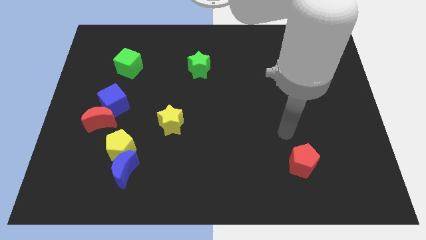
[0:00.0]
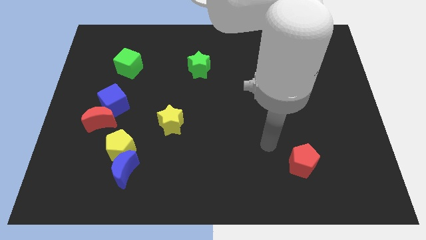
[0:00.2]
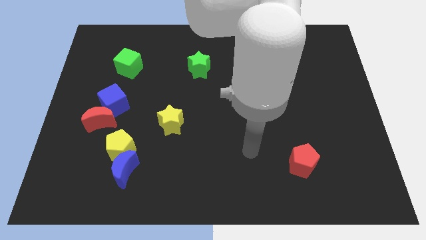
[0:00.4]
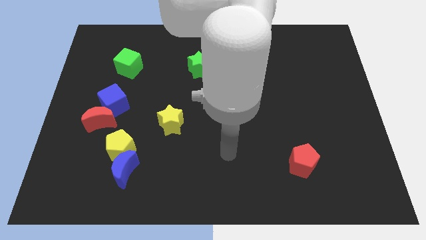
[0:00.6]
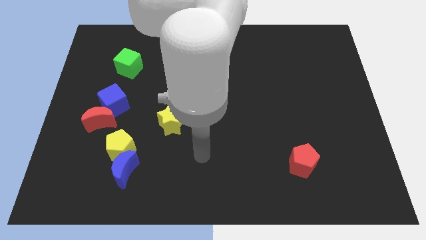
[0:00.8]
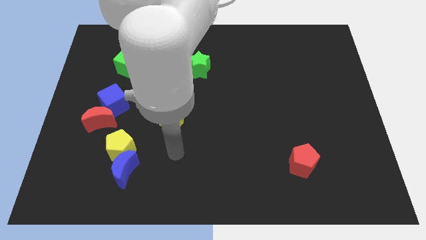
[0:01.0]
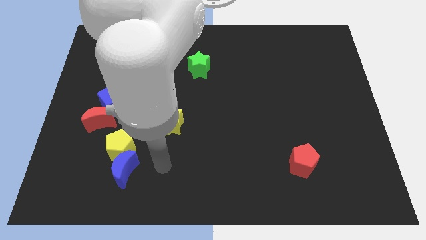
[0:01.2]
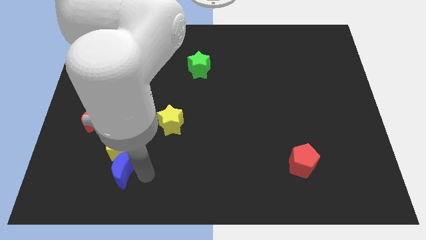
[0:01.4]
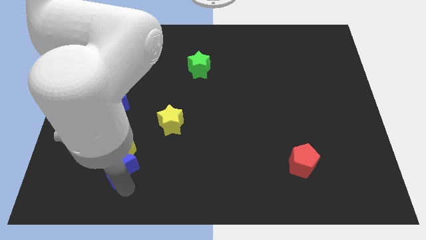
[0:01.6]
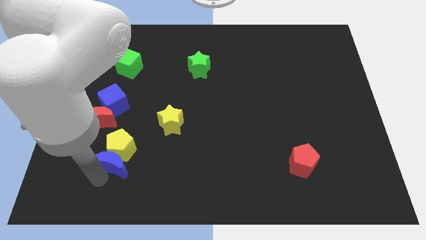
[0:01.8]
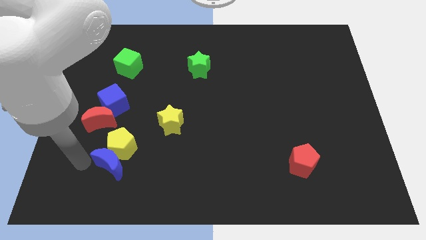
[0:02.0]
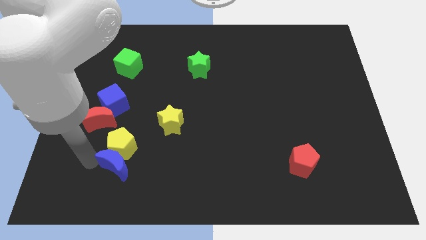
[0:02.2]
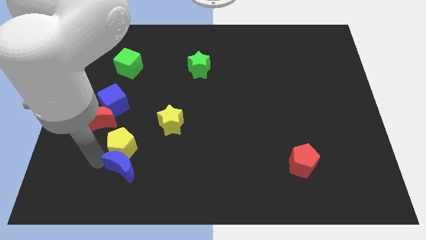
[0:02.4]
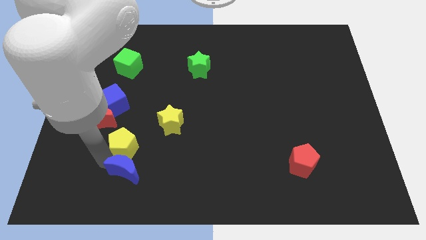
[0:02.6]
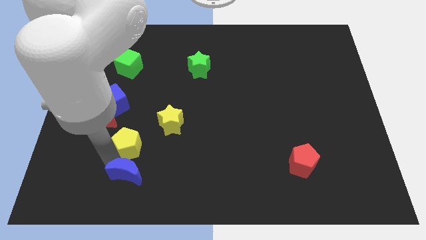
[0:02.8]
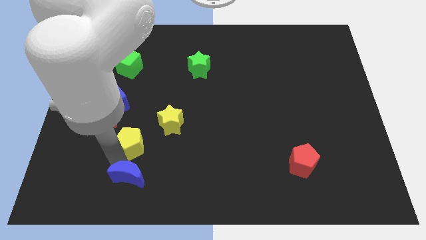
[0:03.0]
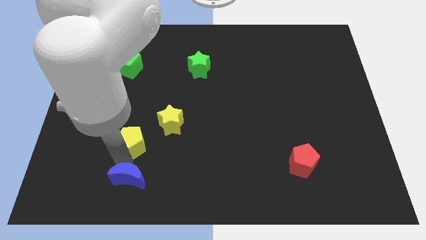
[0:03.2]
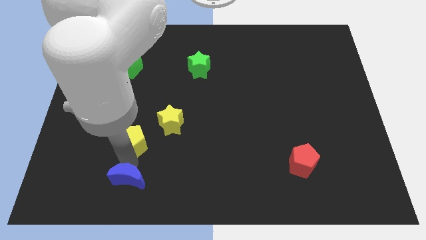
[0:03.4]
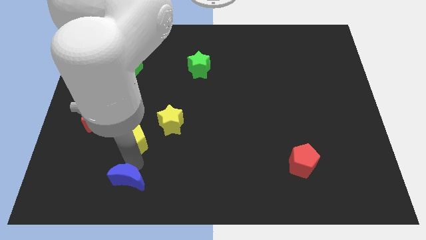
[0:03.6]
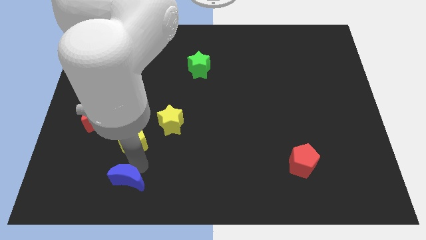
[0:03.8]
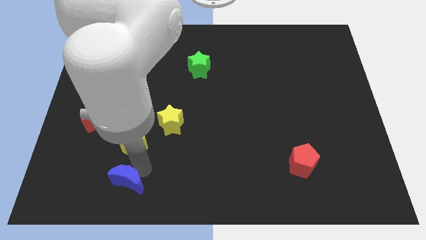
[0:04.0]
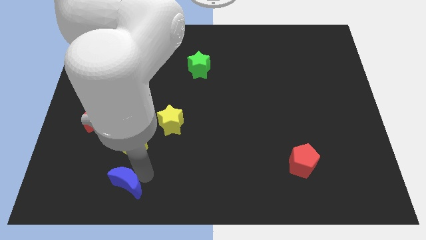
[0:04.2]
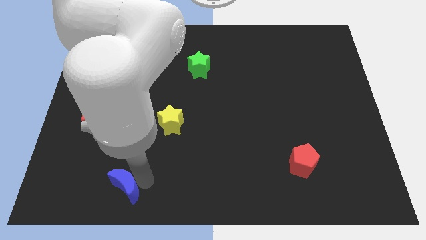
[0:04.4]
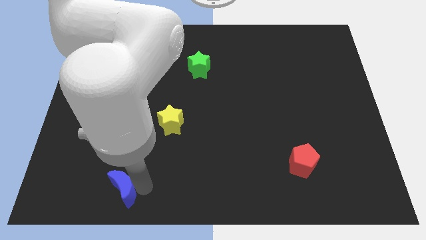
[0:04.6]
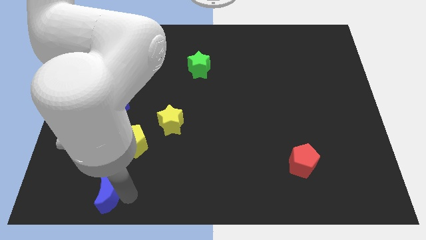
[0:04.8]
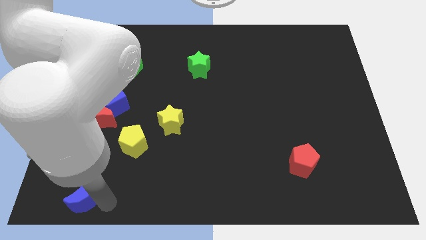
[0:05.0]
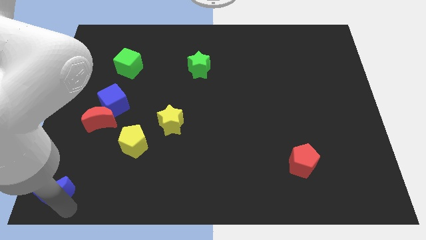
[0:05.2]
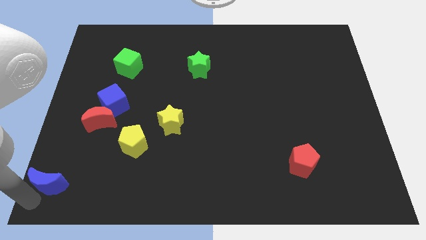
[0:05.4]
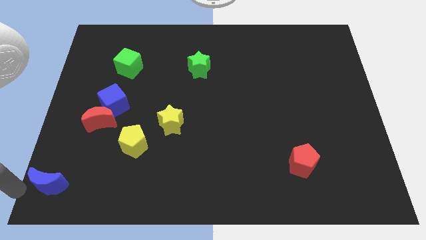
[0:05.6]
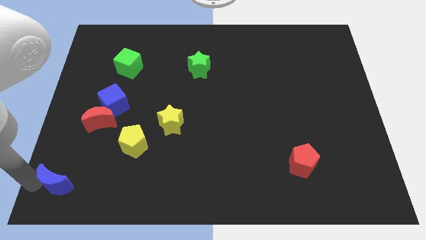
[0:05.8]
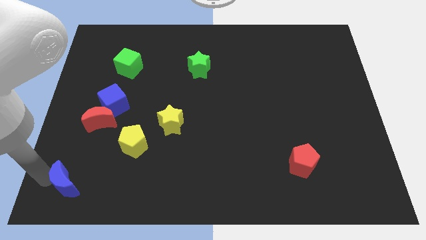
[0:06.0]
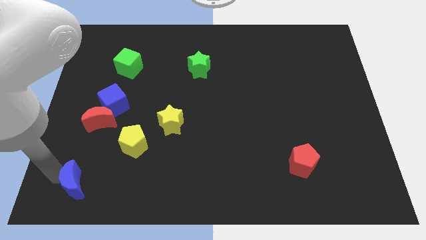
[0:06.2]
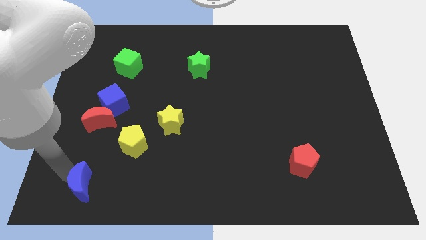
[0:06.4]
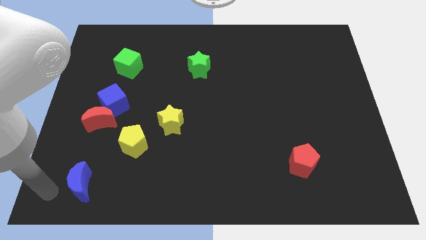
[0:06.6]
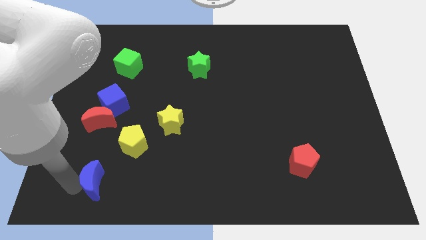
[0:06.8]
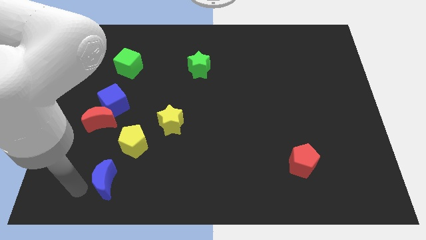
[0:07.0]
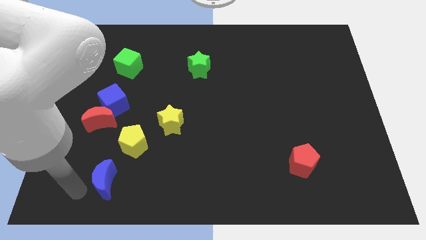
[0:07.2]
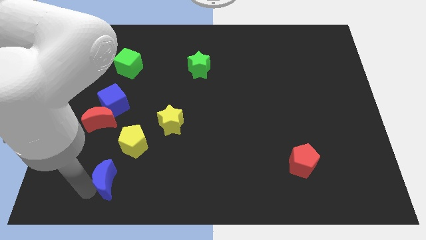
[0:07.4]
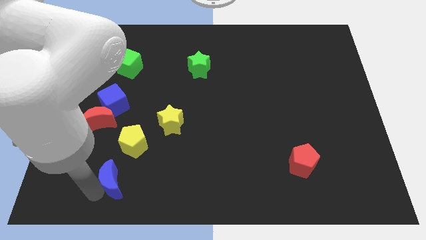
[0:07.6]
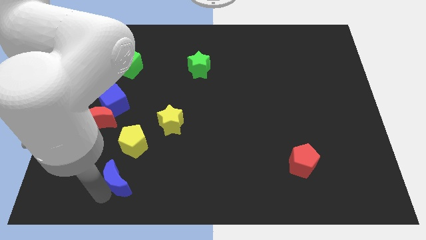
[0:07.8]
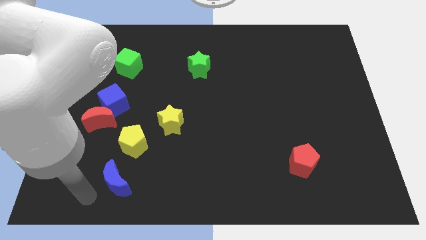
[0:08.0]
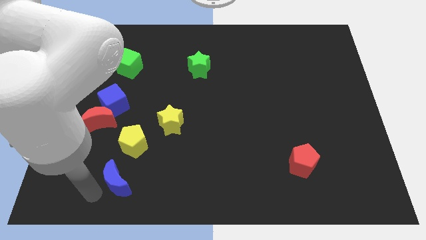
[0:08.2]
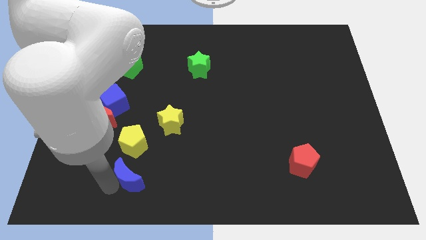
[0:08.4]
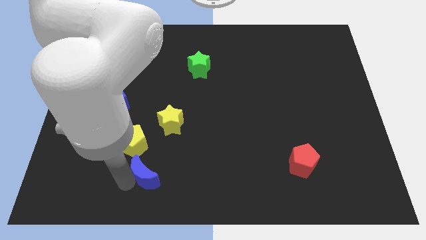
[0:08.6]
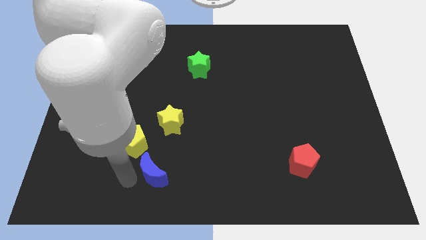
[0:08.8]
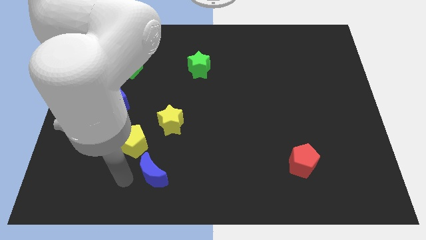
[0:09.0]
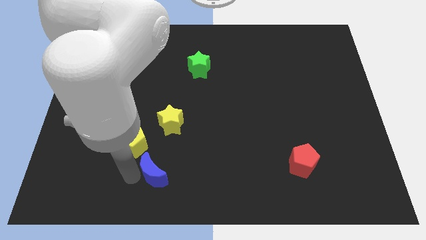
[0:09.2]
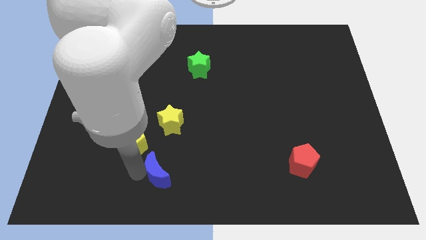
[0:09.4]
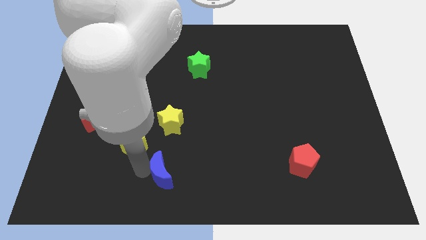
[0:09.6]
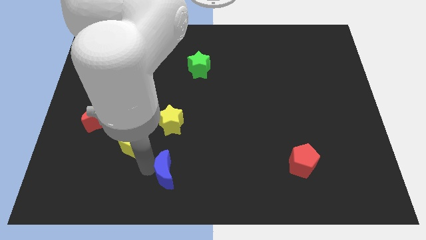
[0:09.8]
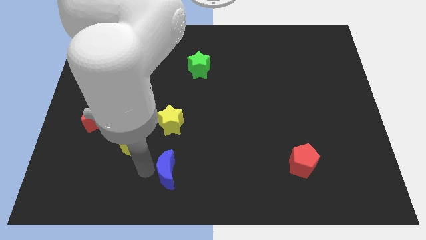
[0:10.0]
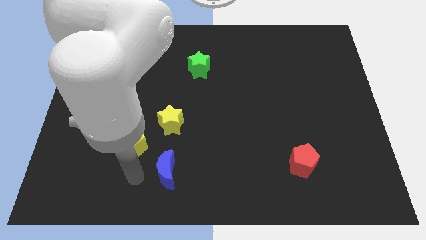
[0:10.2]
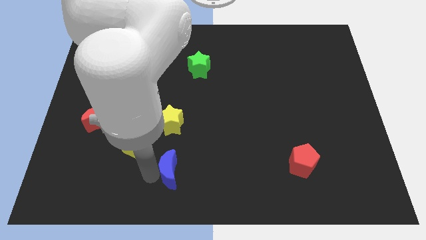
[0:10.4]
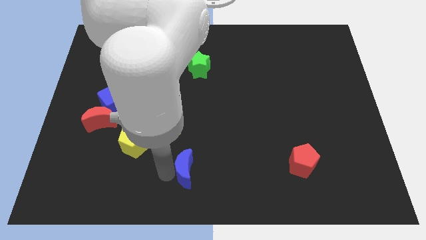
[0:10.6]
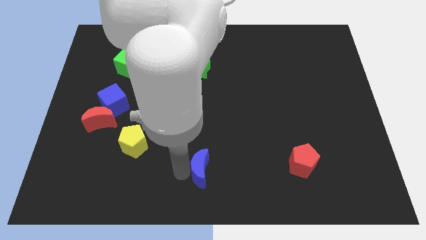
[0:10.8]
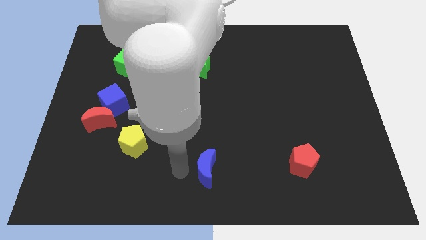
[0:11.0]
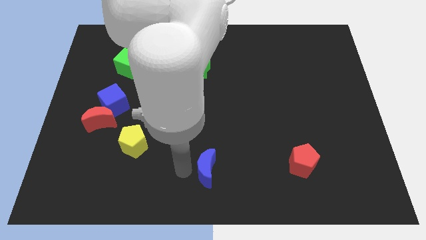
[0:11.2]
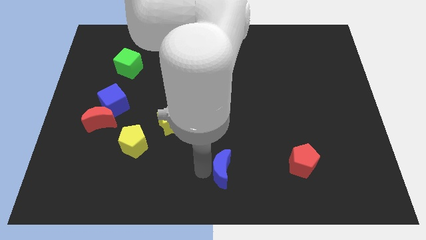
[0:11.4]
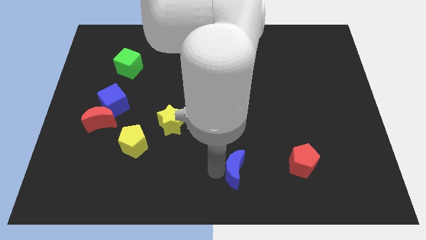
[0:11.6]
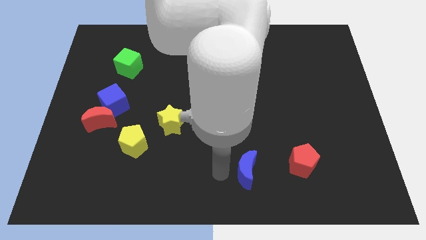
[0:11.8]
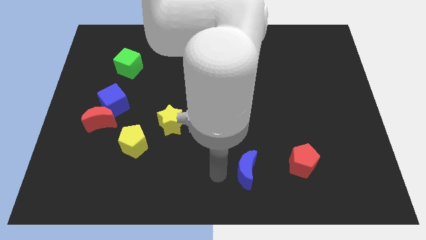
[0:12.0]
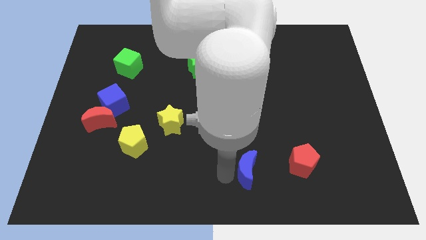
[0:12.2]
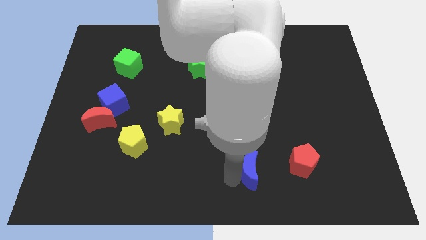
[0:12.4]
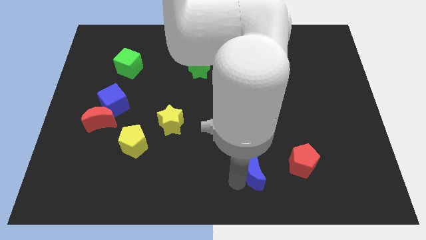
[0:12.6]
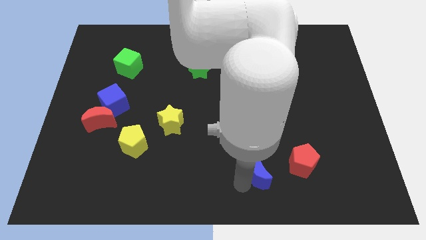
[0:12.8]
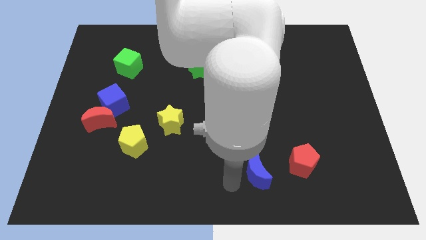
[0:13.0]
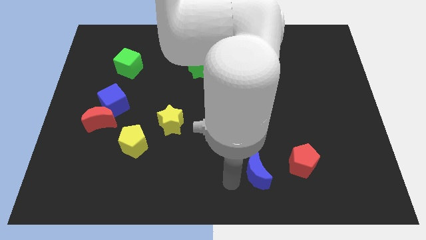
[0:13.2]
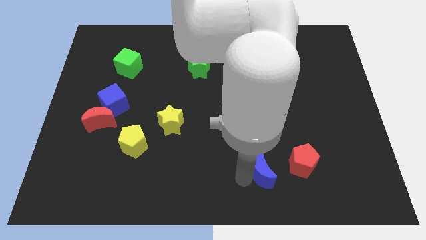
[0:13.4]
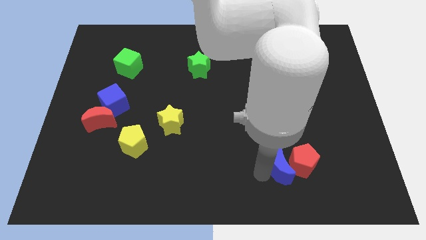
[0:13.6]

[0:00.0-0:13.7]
move the blue moon next to the red pentagon

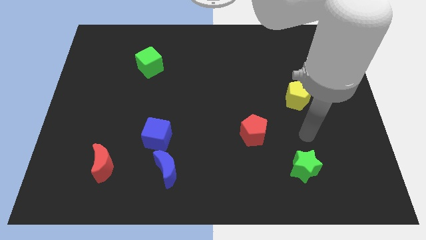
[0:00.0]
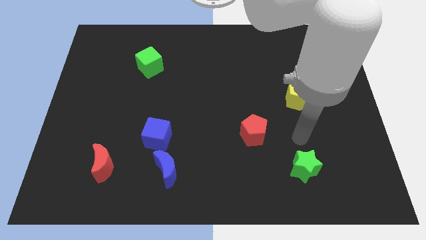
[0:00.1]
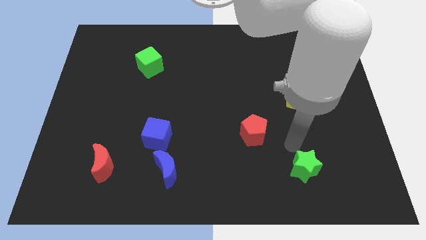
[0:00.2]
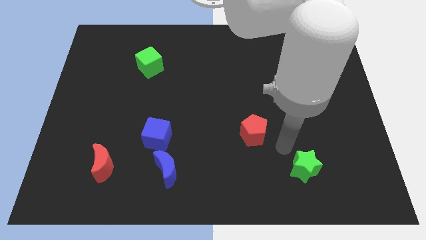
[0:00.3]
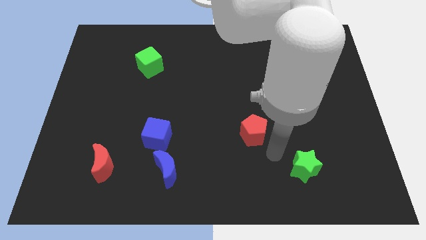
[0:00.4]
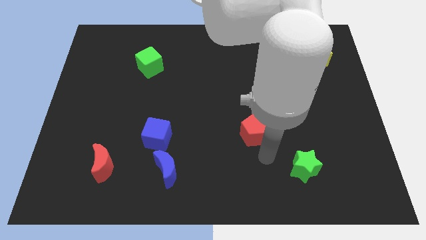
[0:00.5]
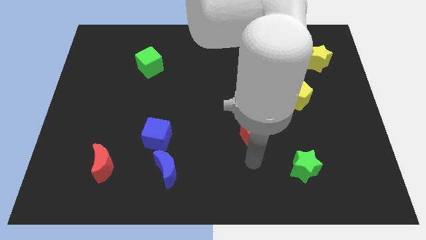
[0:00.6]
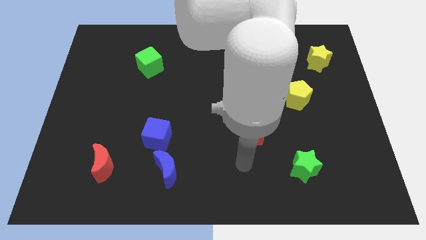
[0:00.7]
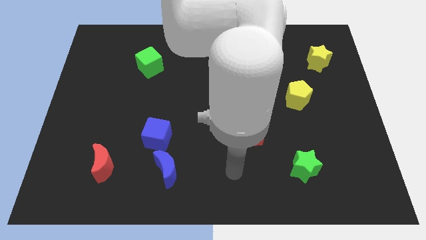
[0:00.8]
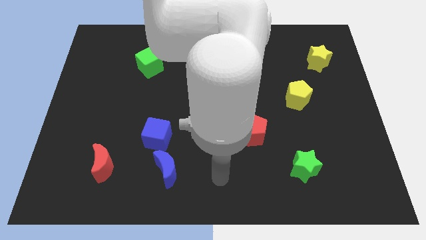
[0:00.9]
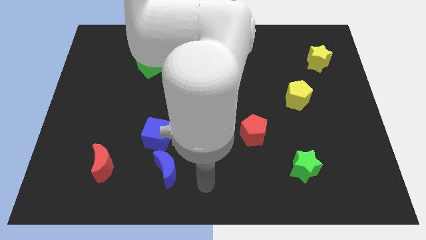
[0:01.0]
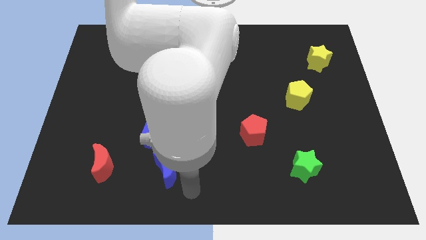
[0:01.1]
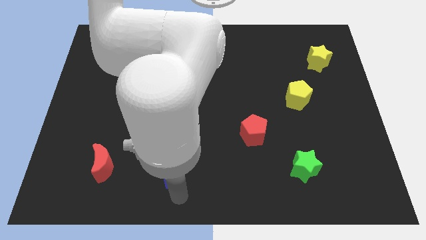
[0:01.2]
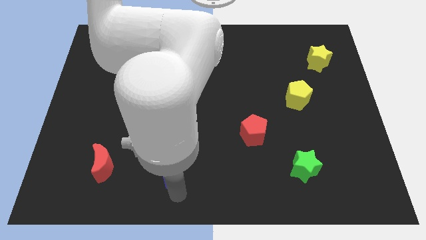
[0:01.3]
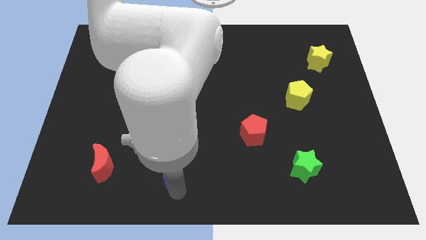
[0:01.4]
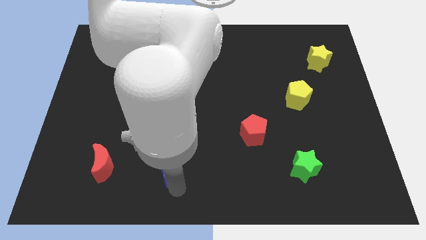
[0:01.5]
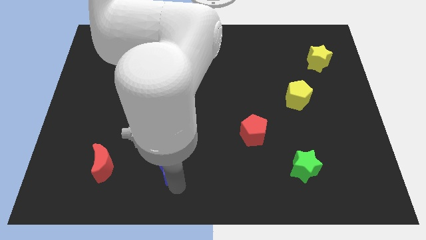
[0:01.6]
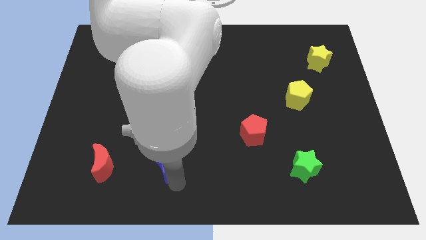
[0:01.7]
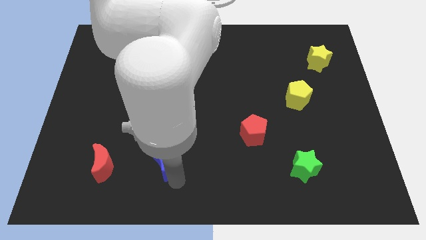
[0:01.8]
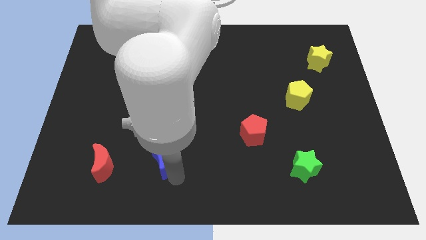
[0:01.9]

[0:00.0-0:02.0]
push the blue moon next to the blue cube
